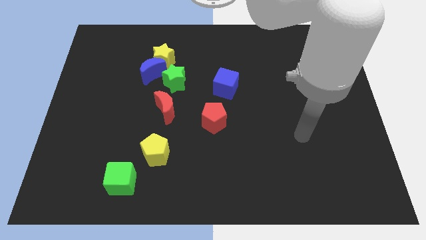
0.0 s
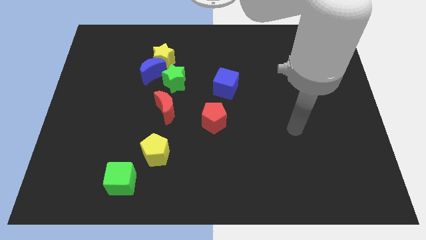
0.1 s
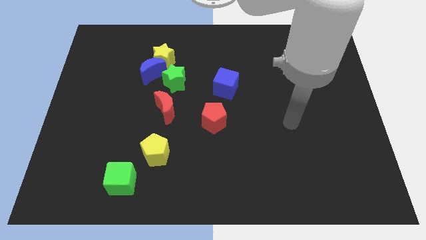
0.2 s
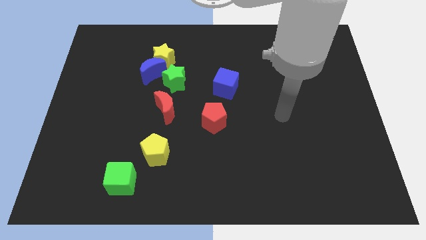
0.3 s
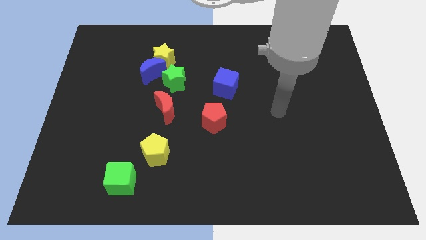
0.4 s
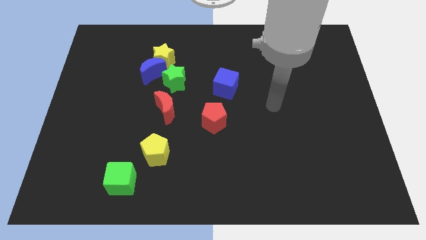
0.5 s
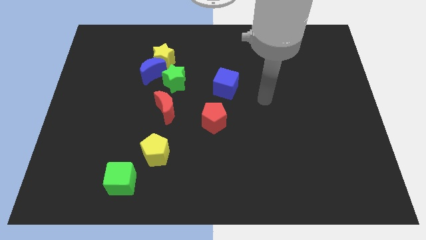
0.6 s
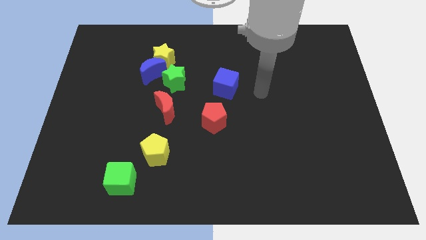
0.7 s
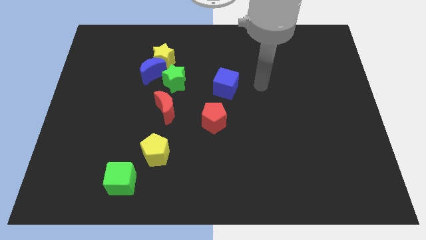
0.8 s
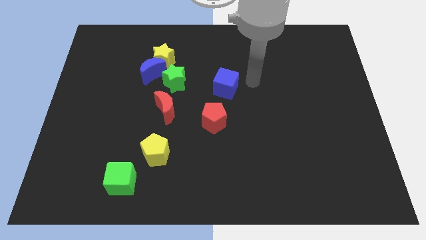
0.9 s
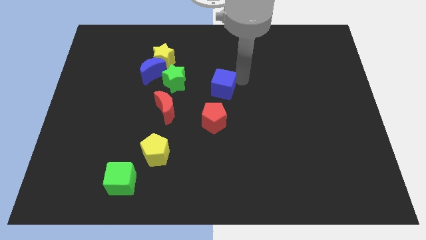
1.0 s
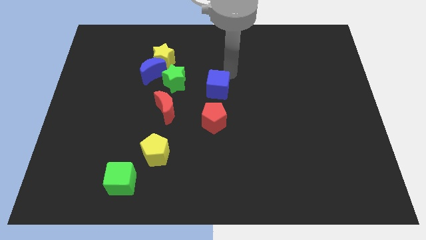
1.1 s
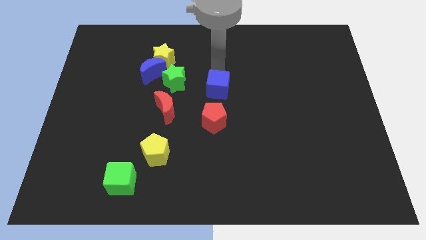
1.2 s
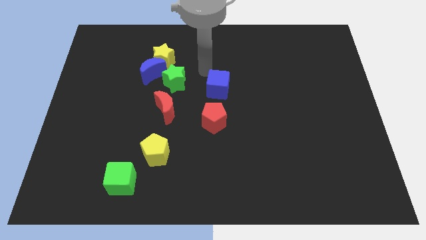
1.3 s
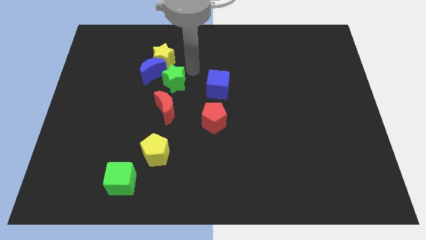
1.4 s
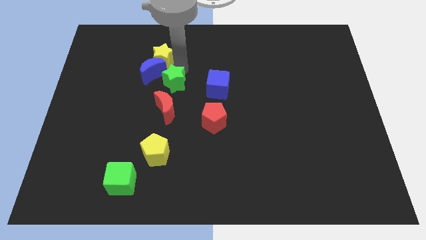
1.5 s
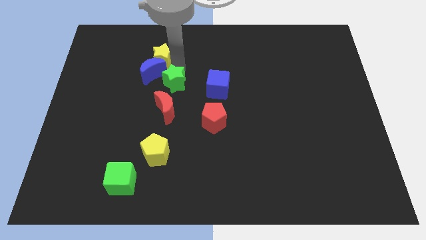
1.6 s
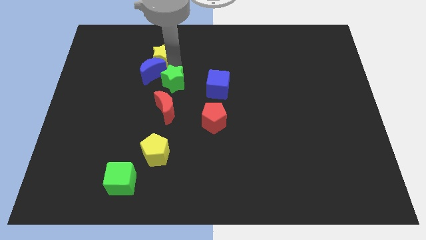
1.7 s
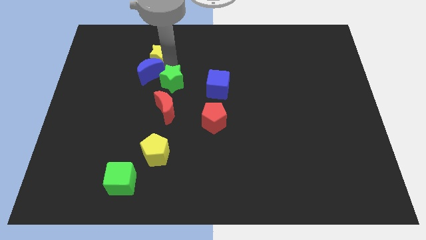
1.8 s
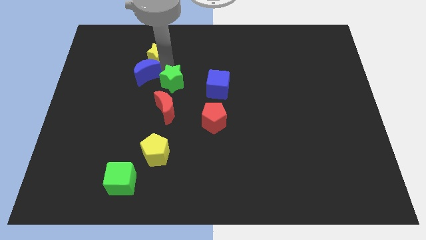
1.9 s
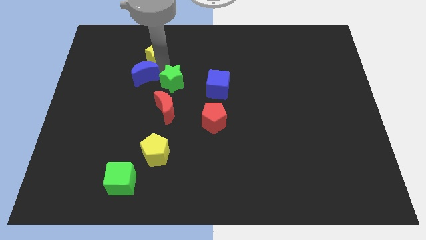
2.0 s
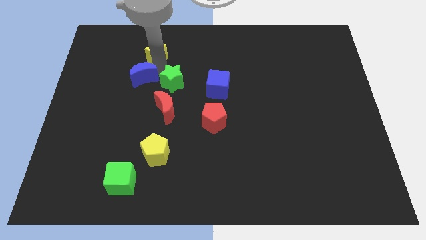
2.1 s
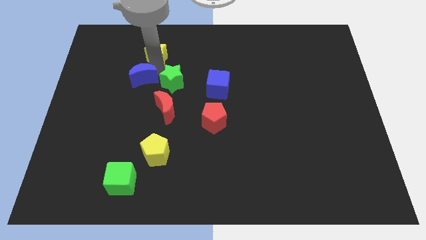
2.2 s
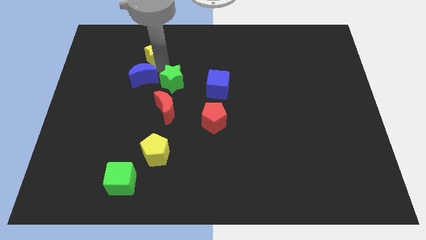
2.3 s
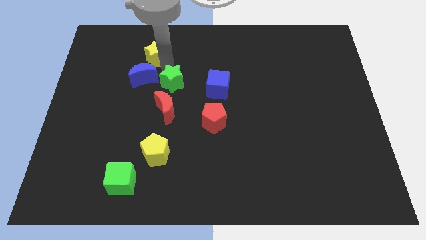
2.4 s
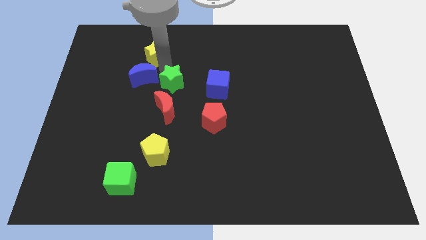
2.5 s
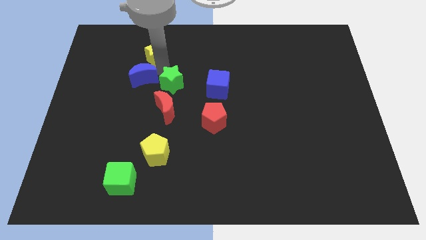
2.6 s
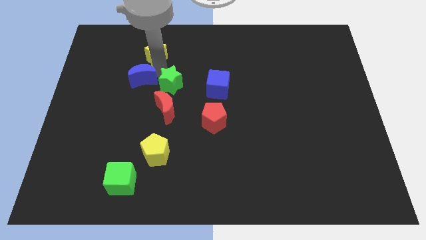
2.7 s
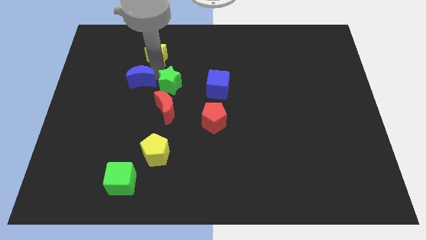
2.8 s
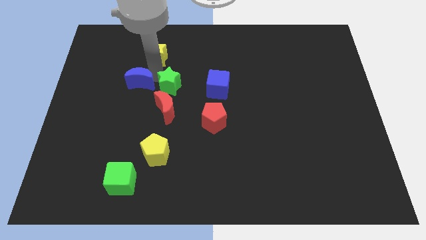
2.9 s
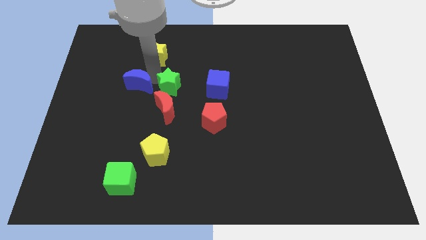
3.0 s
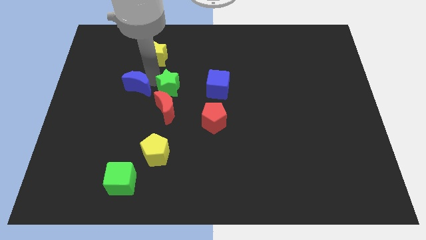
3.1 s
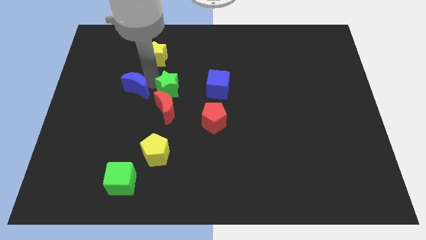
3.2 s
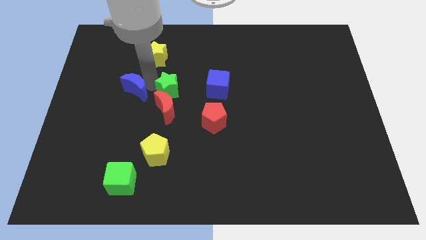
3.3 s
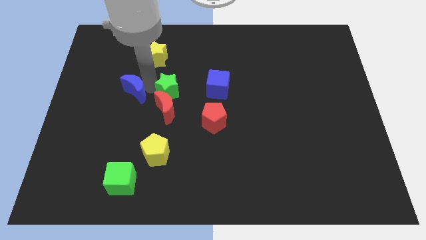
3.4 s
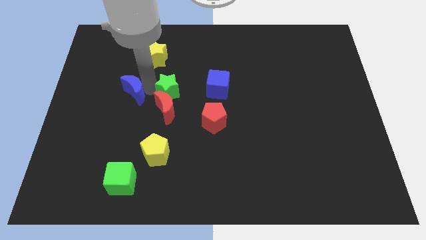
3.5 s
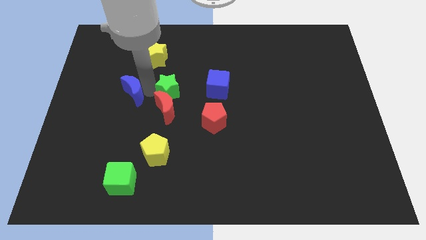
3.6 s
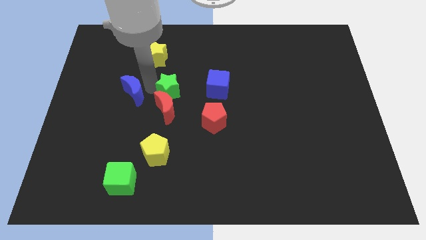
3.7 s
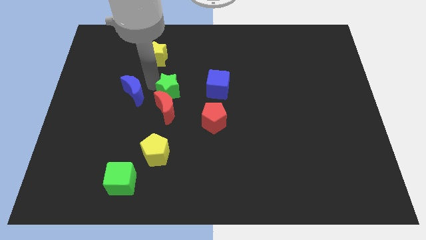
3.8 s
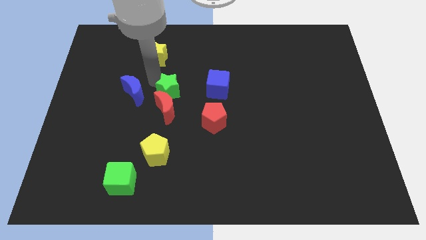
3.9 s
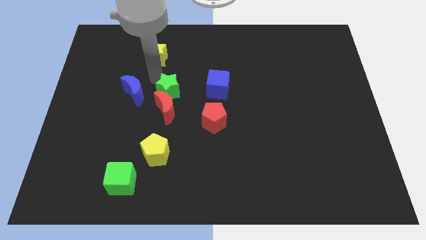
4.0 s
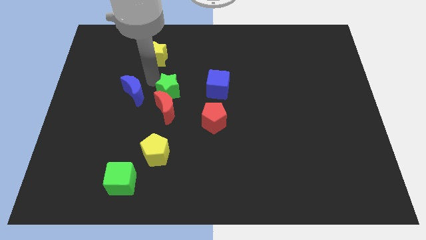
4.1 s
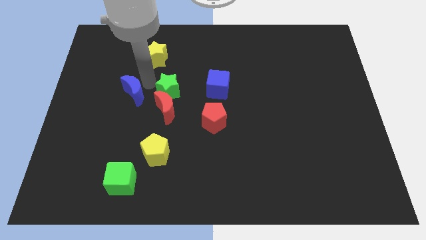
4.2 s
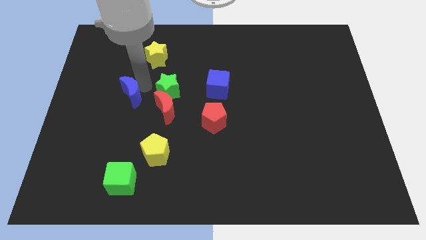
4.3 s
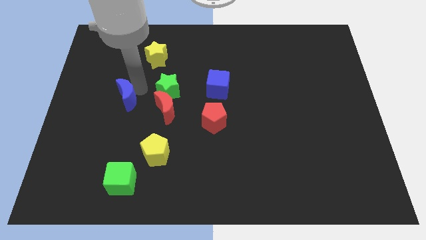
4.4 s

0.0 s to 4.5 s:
pull the blue moon apart from the yellow star and green star

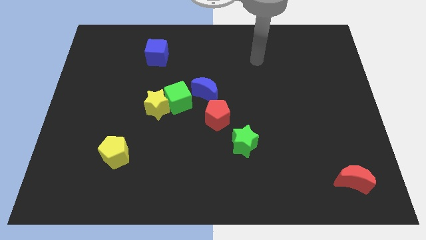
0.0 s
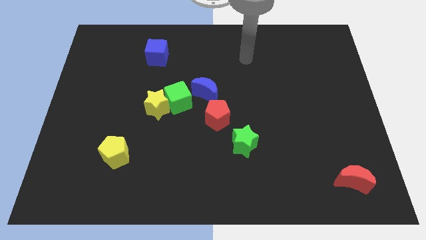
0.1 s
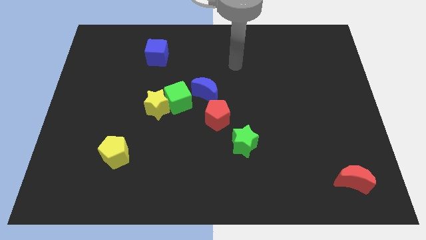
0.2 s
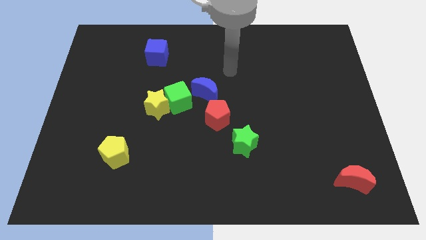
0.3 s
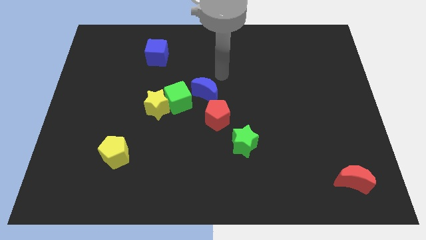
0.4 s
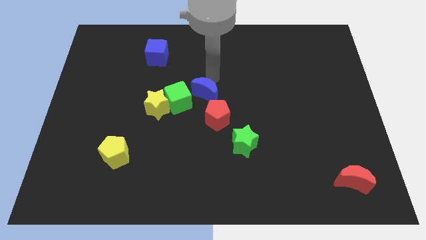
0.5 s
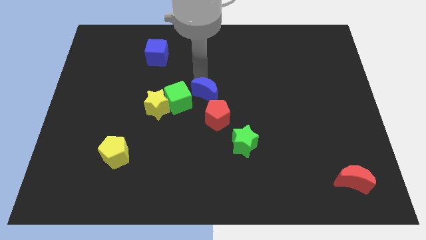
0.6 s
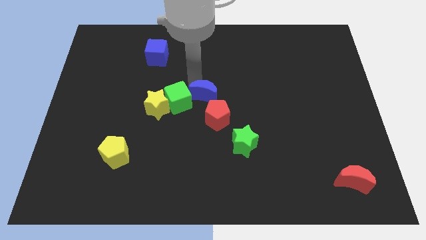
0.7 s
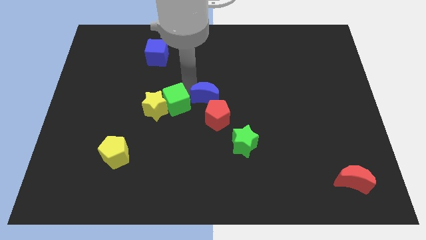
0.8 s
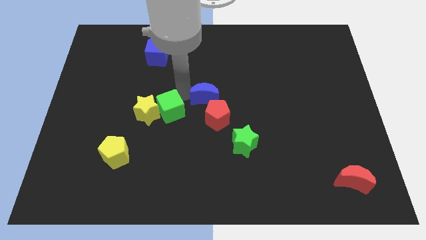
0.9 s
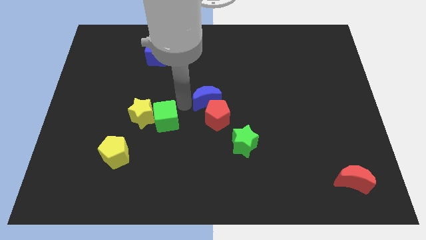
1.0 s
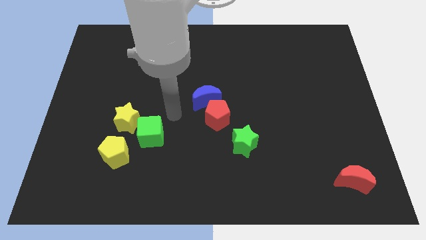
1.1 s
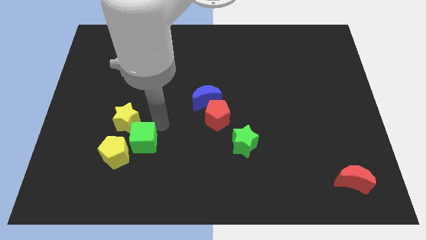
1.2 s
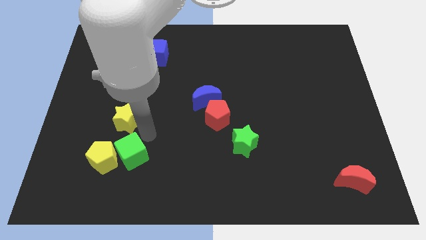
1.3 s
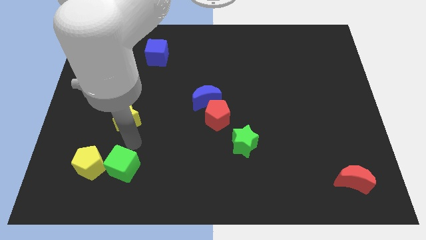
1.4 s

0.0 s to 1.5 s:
separate the yellow star from the green cube

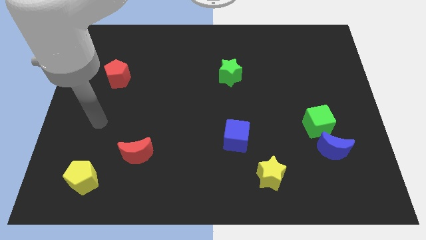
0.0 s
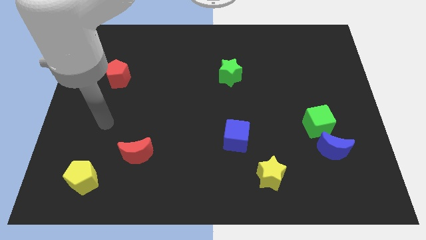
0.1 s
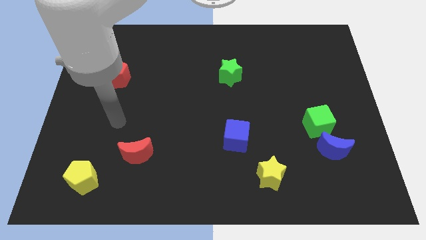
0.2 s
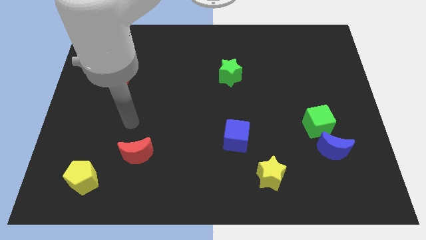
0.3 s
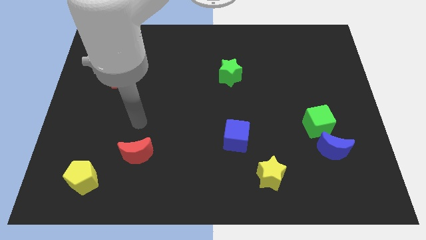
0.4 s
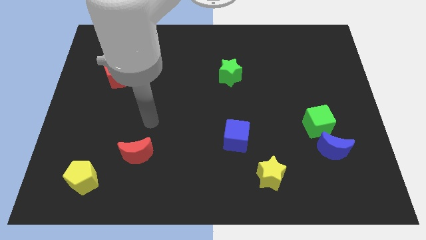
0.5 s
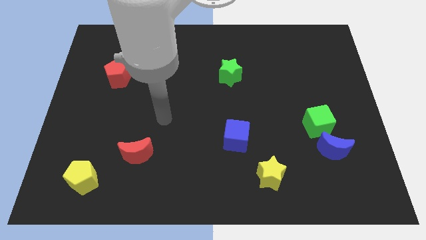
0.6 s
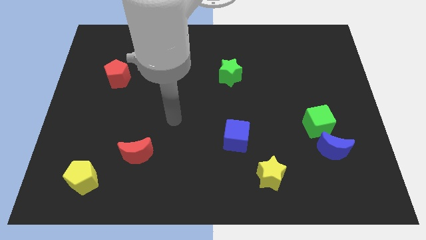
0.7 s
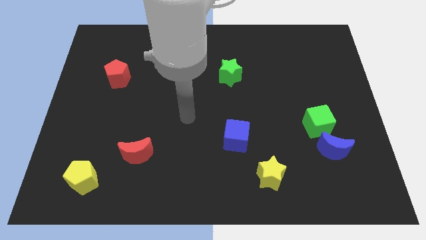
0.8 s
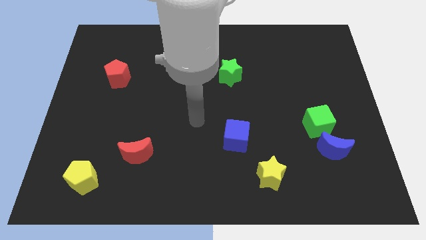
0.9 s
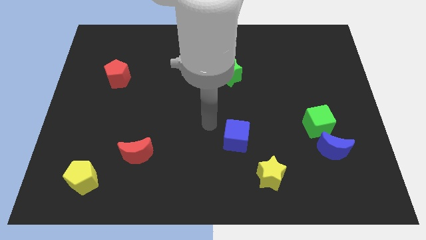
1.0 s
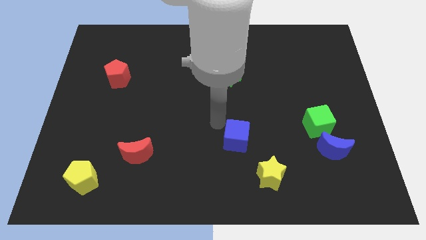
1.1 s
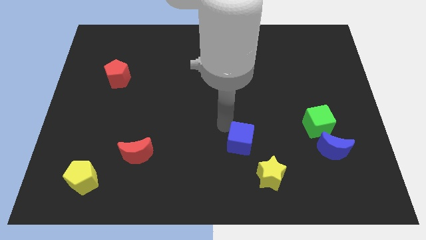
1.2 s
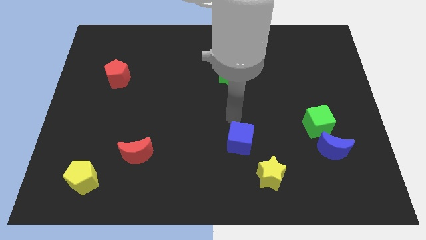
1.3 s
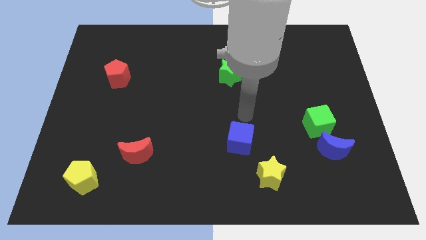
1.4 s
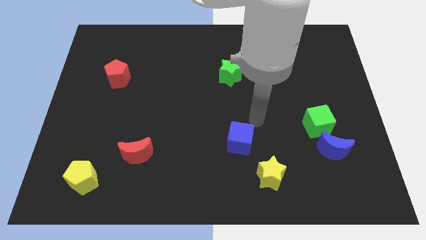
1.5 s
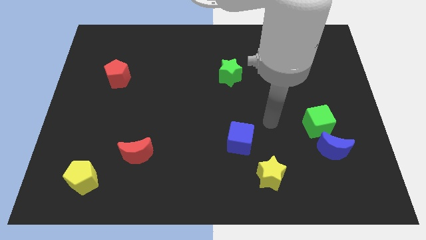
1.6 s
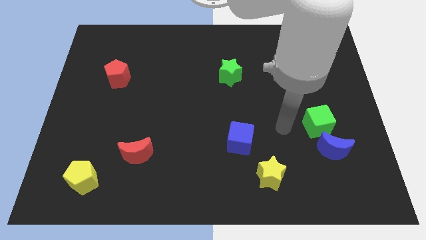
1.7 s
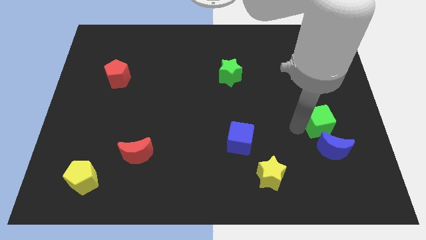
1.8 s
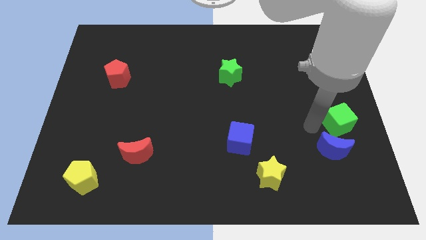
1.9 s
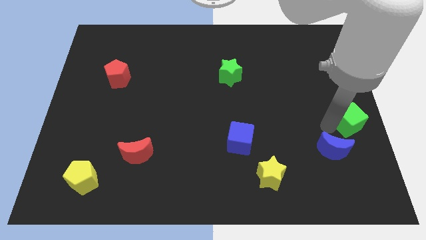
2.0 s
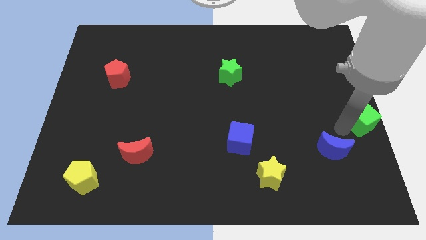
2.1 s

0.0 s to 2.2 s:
separate the blue moon from the green cube

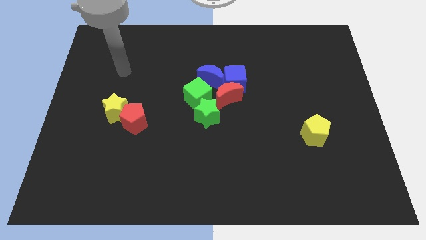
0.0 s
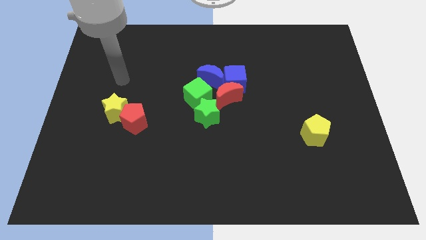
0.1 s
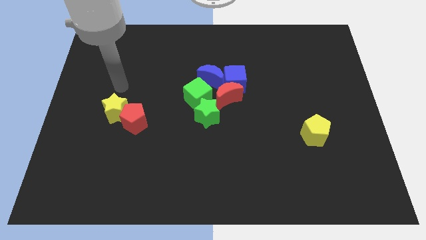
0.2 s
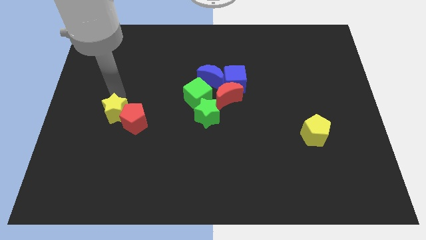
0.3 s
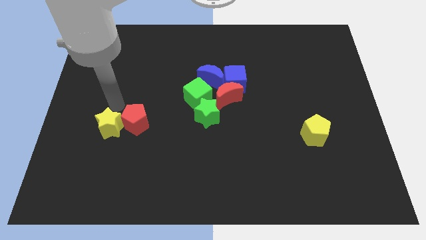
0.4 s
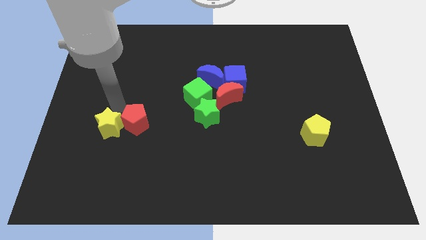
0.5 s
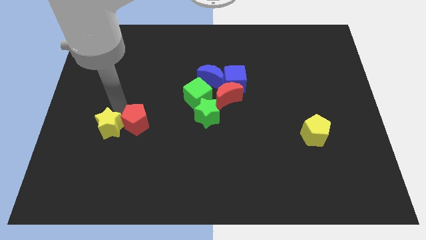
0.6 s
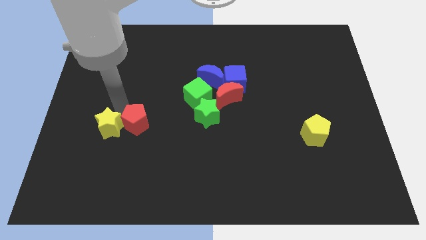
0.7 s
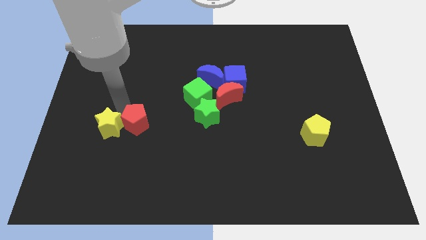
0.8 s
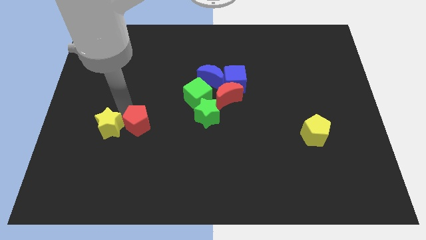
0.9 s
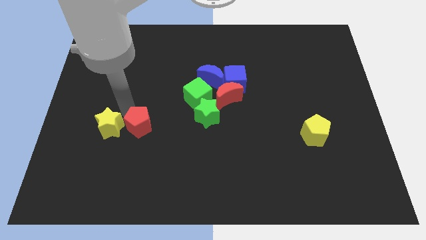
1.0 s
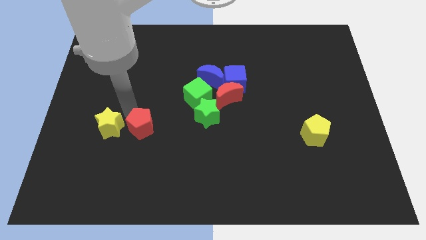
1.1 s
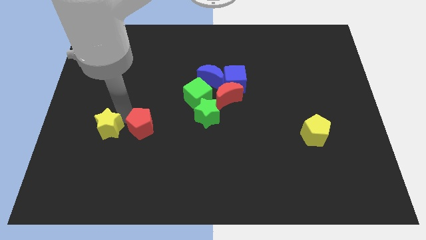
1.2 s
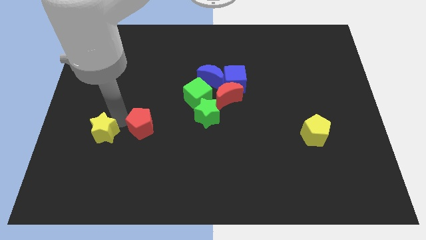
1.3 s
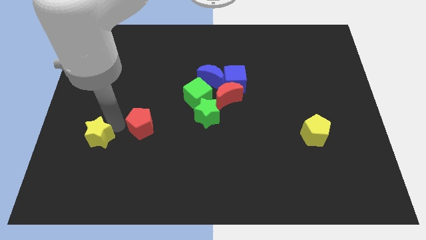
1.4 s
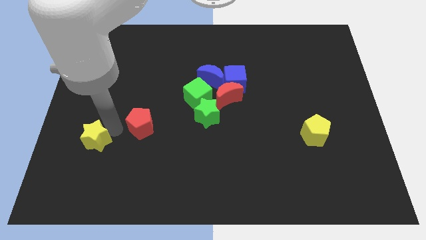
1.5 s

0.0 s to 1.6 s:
separate the red pentagon from the yellow star
